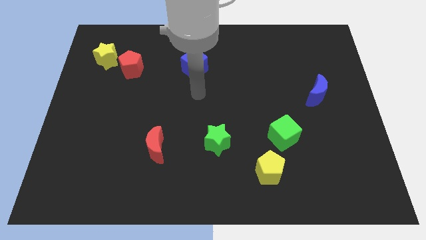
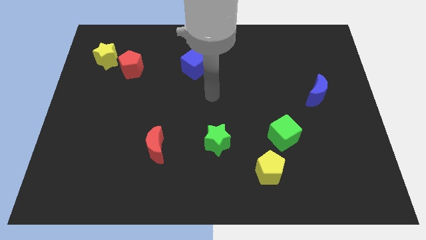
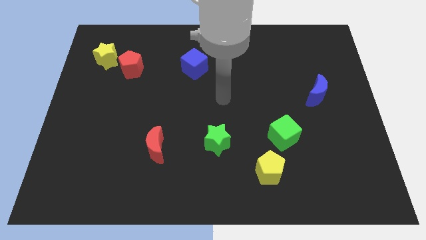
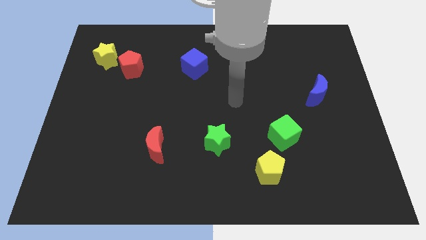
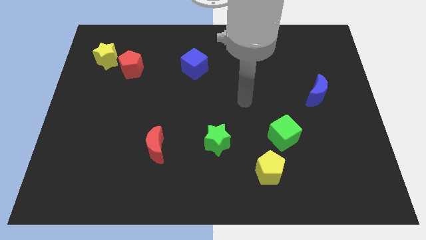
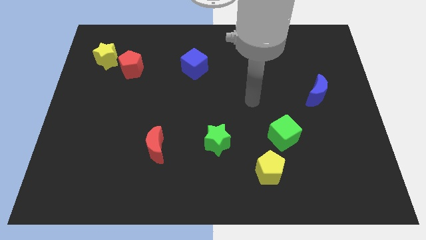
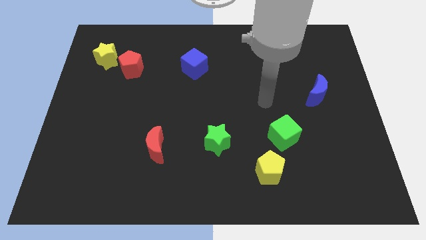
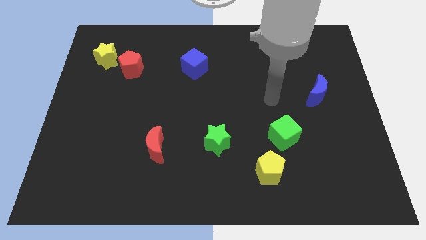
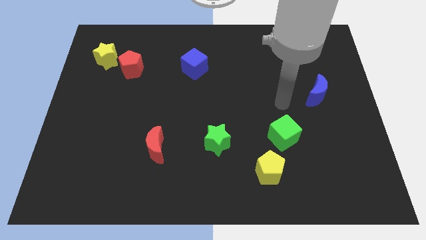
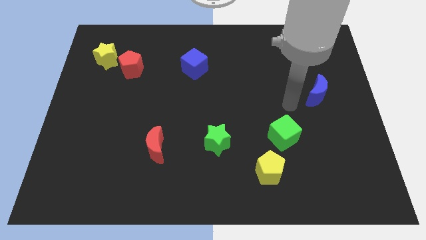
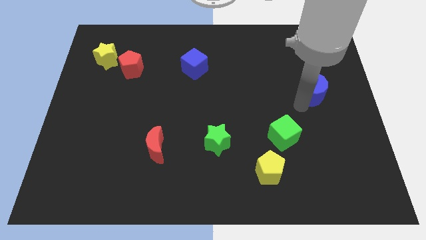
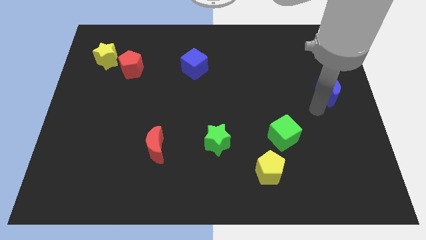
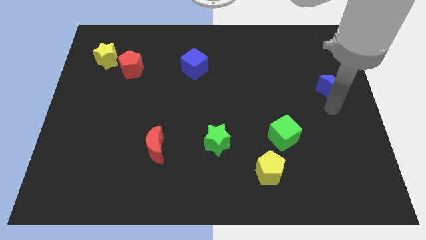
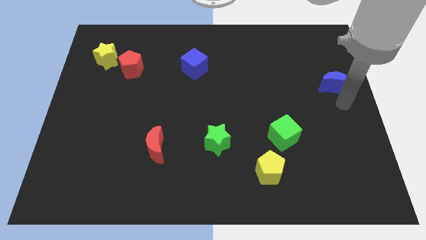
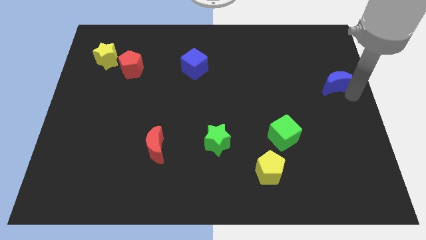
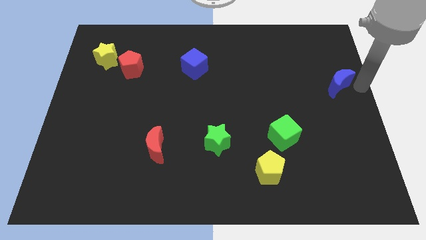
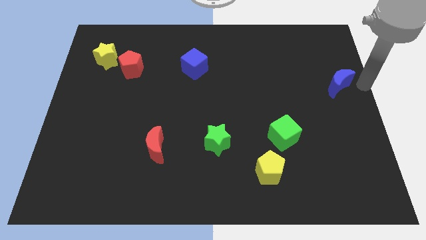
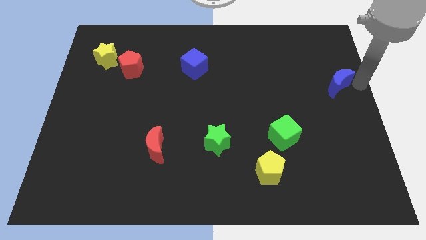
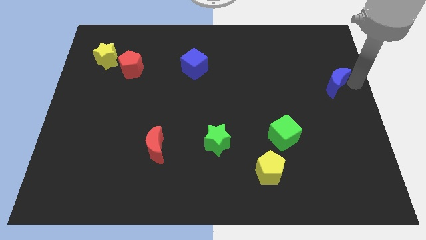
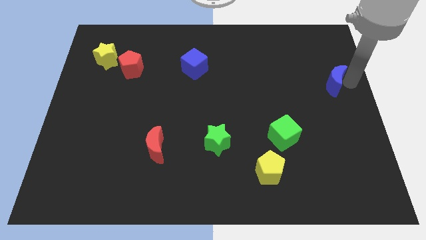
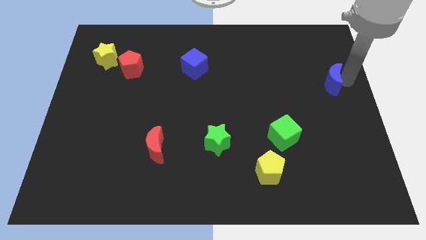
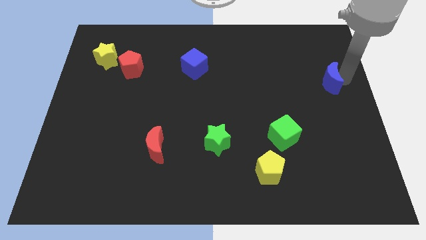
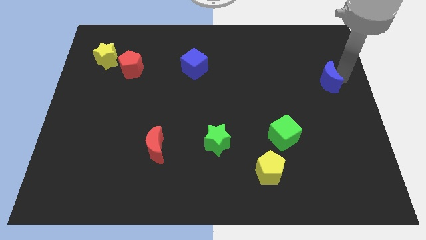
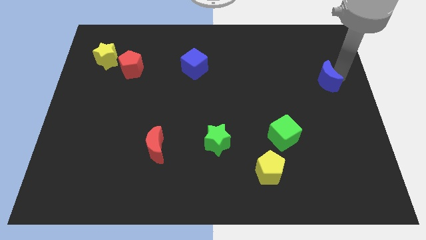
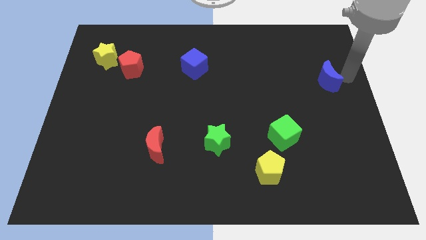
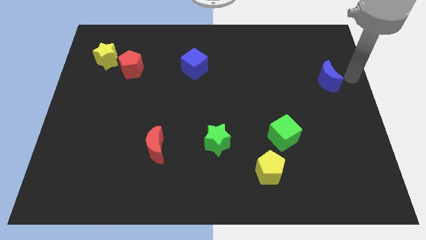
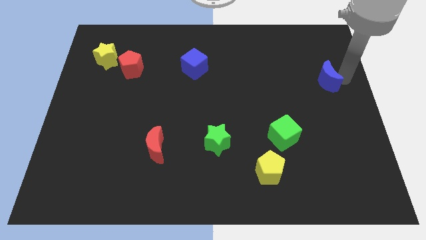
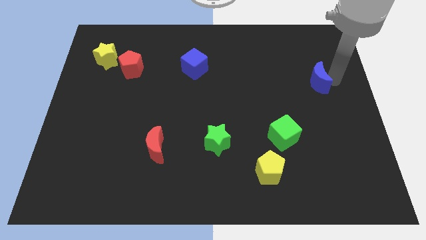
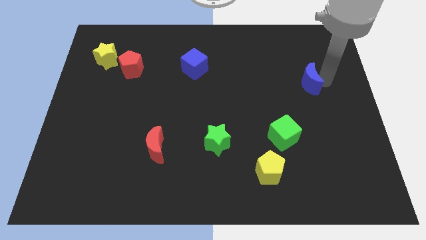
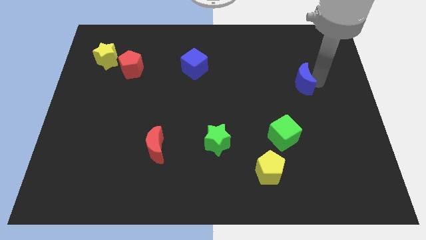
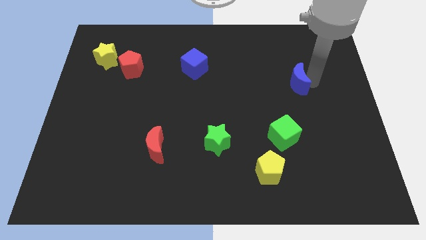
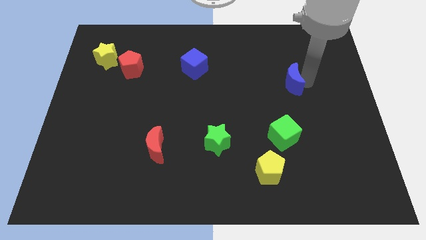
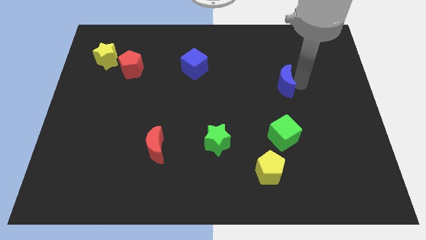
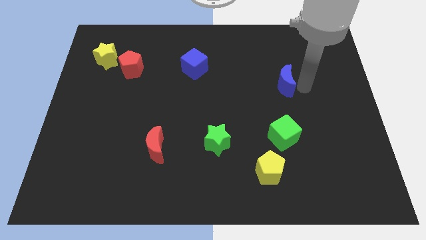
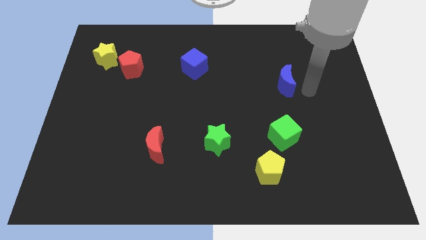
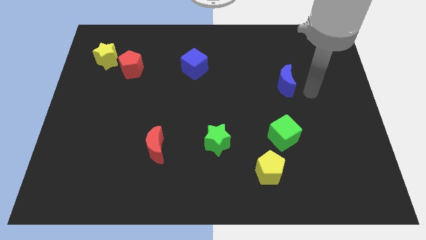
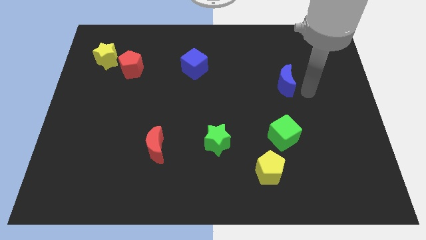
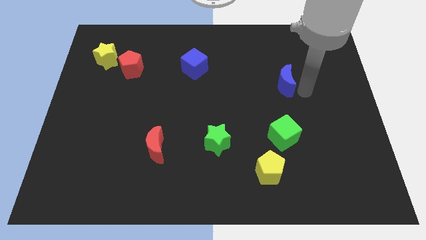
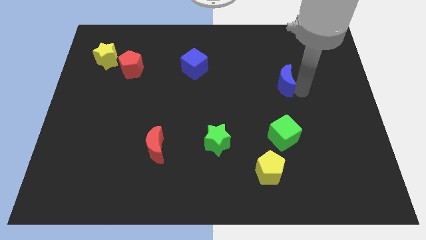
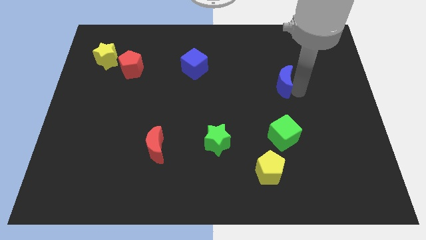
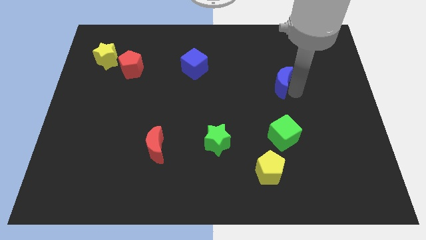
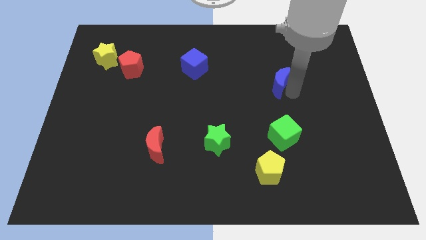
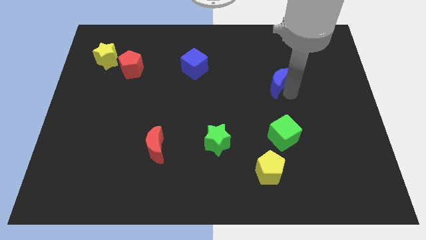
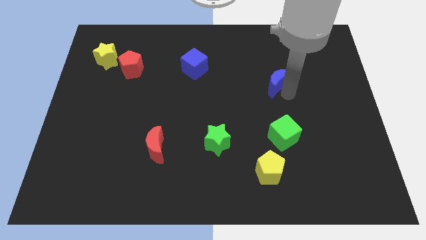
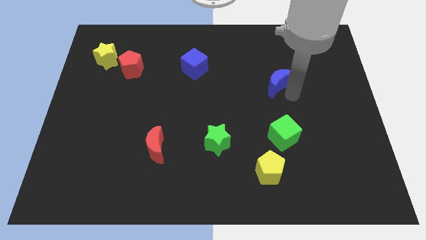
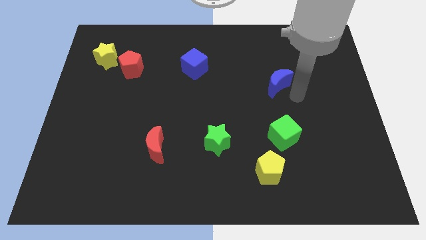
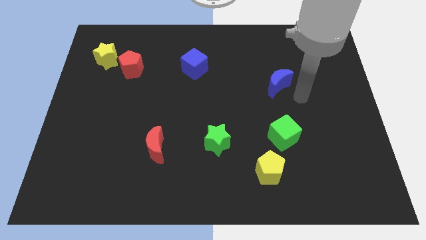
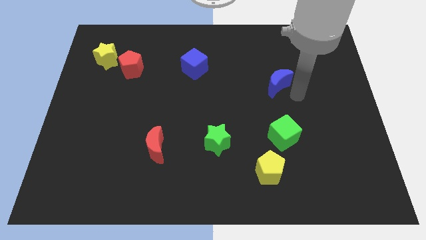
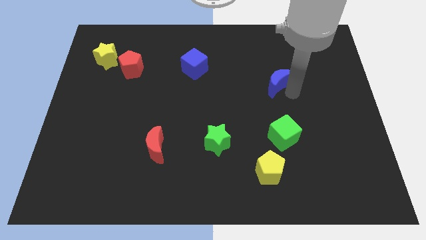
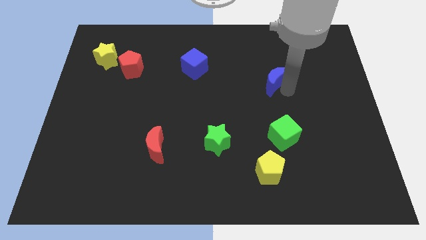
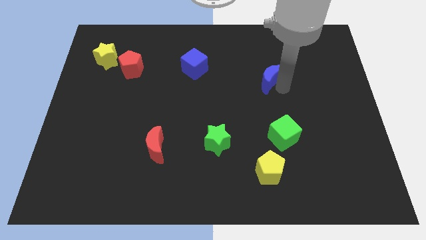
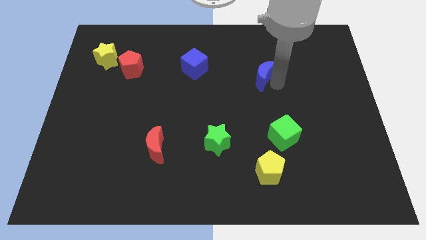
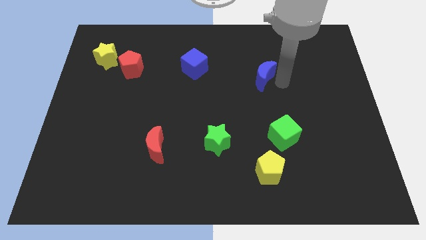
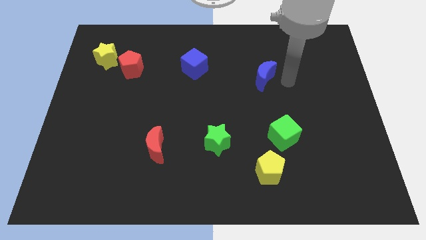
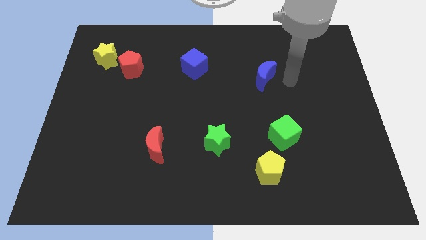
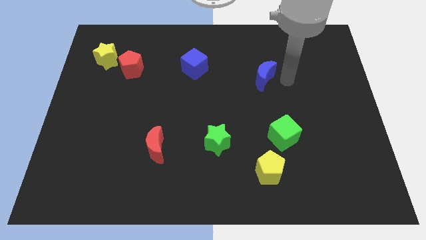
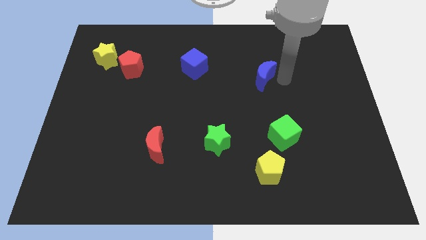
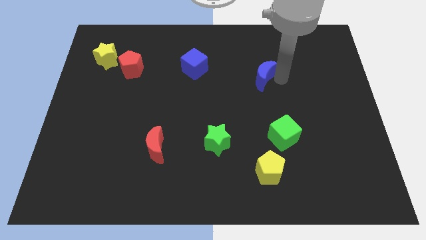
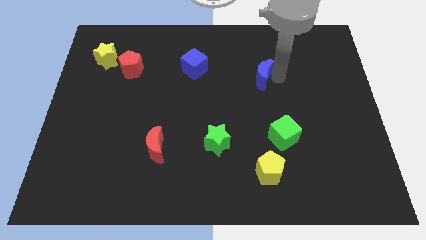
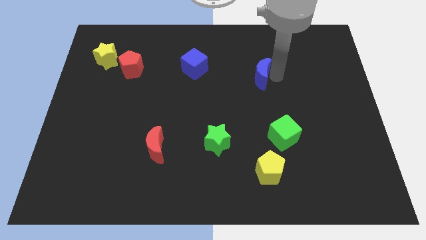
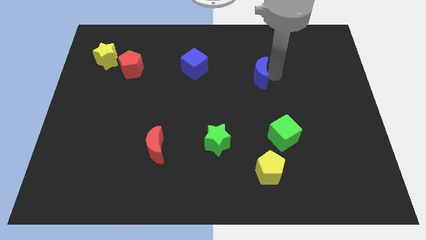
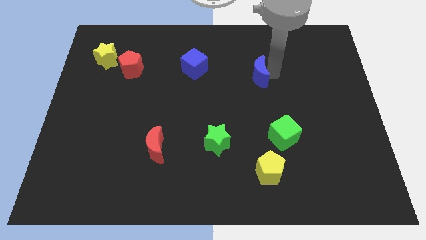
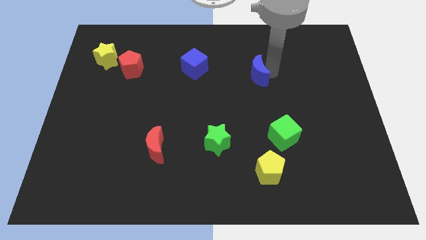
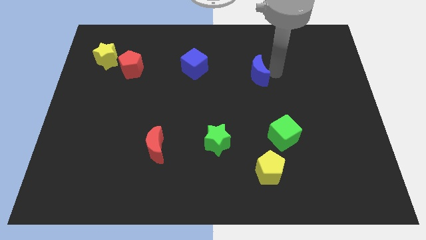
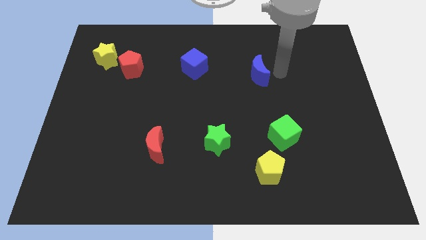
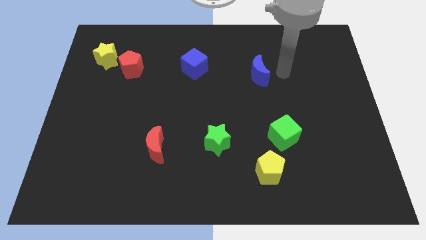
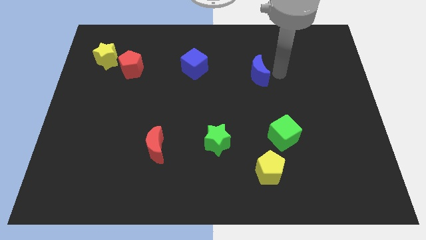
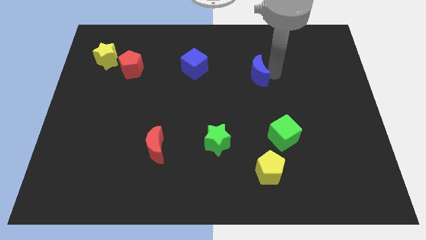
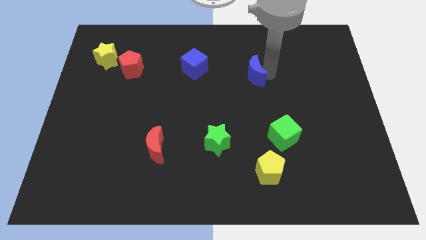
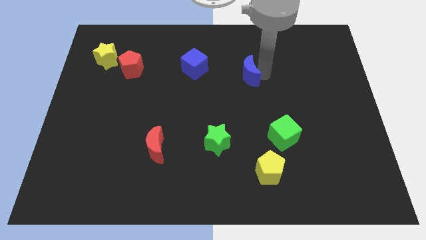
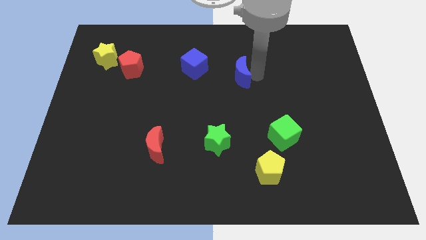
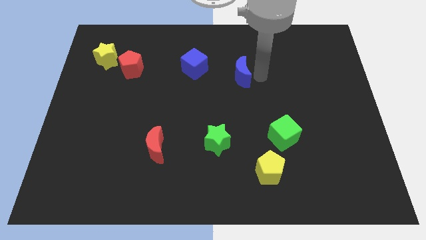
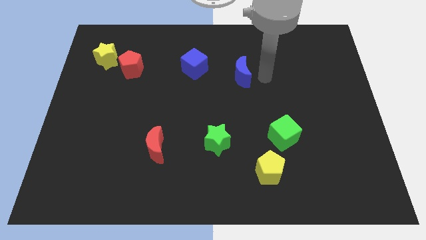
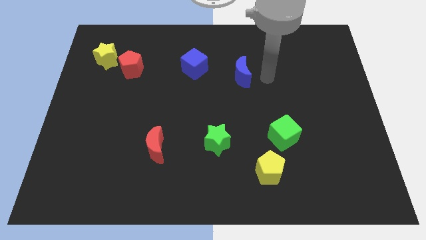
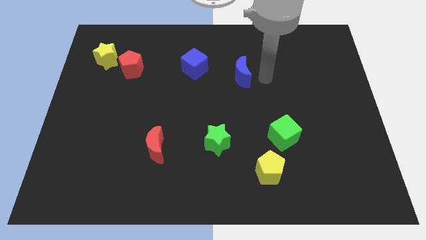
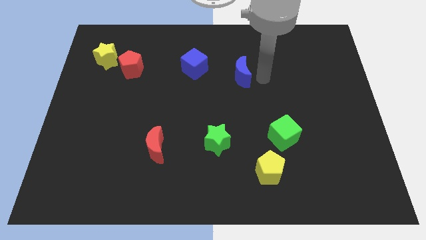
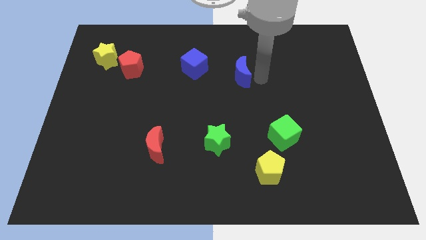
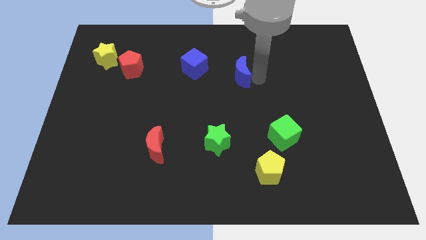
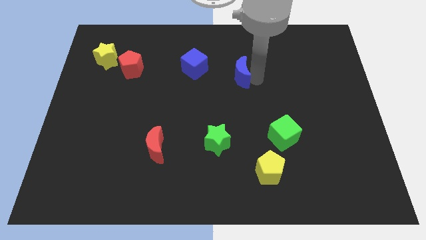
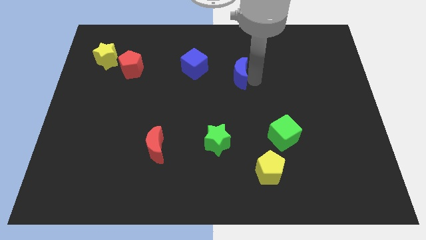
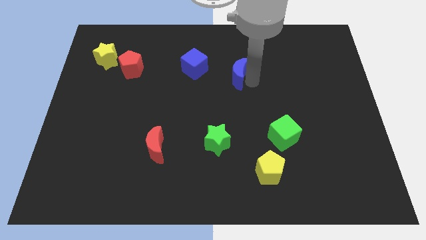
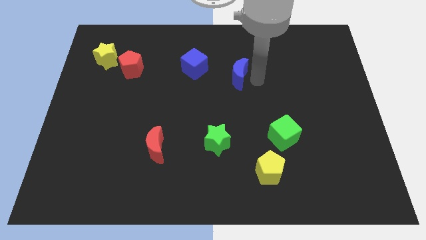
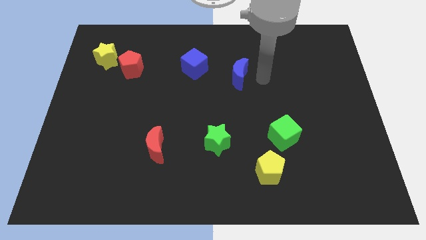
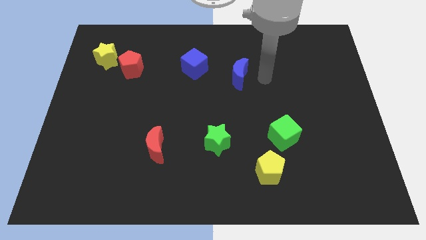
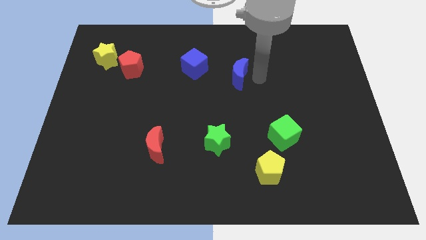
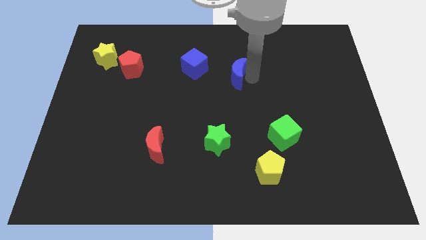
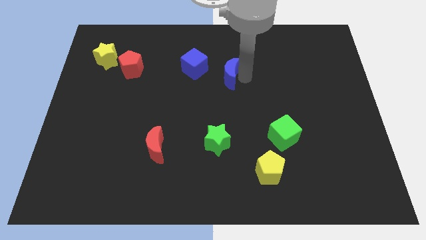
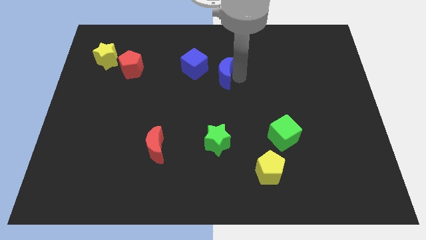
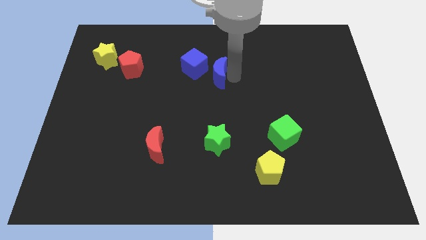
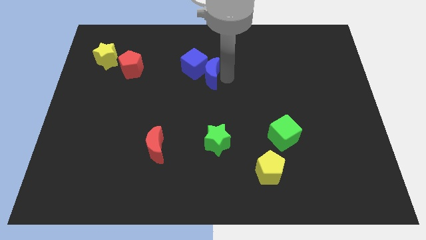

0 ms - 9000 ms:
move the blue moon to the blue cube
